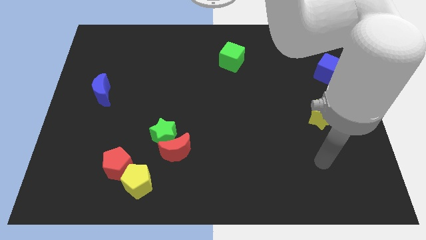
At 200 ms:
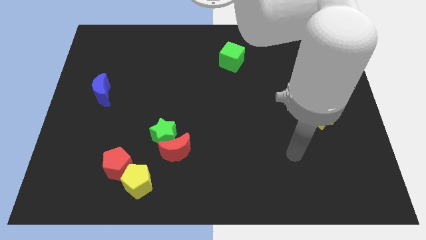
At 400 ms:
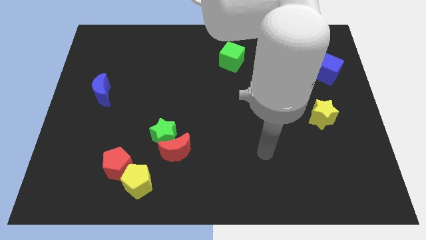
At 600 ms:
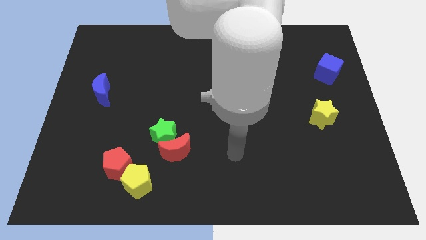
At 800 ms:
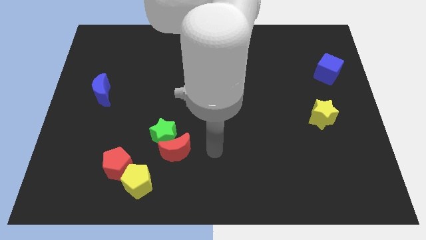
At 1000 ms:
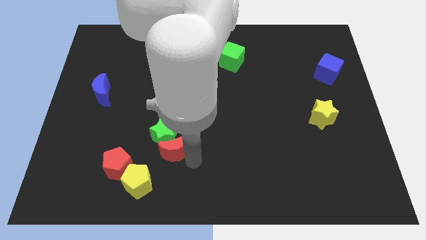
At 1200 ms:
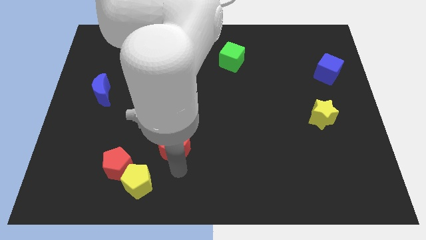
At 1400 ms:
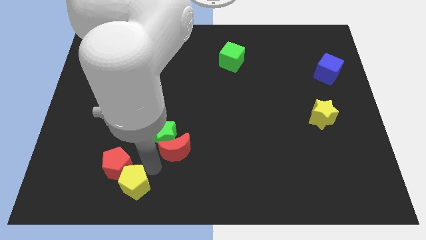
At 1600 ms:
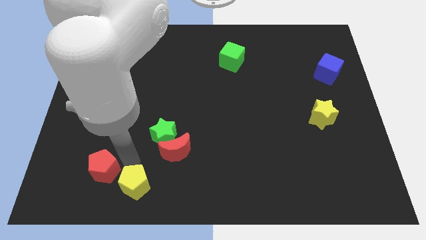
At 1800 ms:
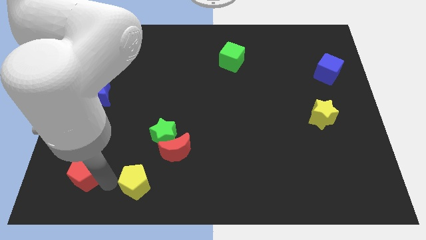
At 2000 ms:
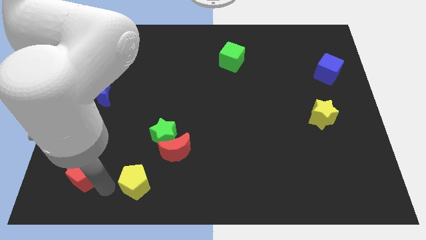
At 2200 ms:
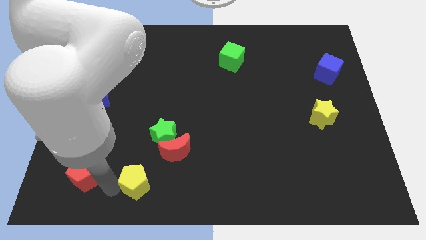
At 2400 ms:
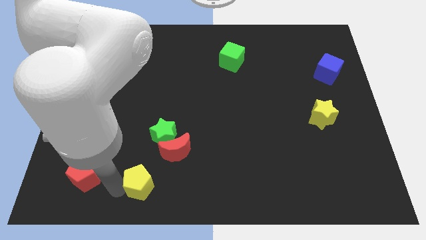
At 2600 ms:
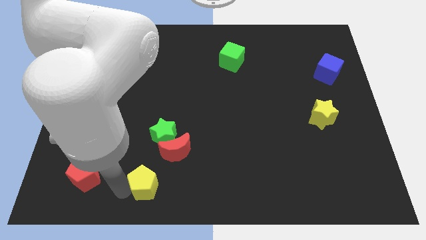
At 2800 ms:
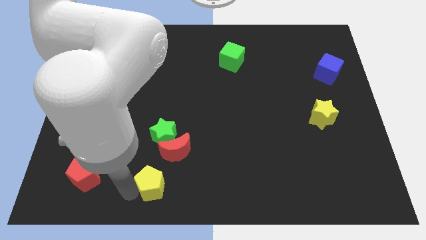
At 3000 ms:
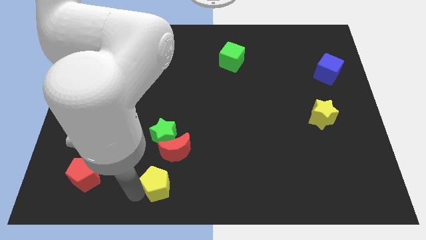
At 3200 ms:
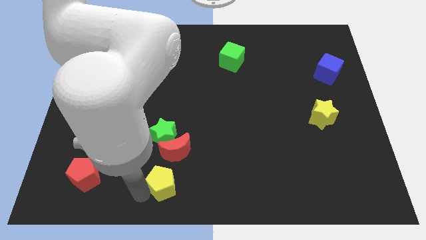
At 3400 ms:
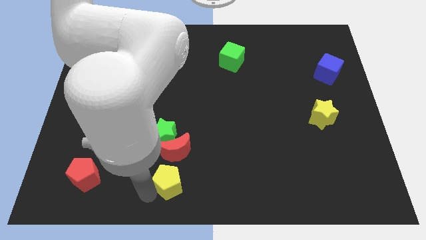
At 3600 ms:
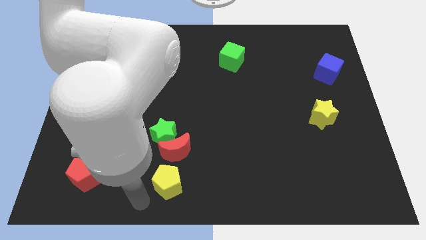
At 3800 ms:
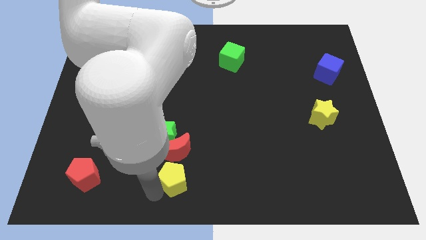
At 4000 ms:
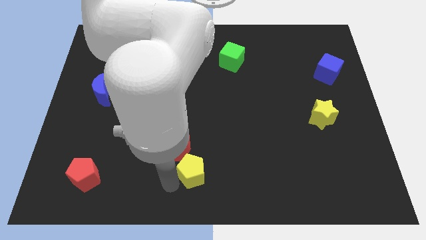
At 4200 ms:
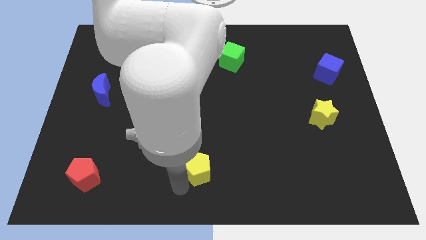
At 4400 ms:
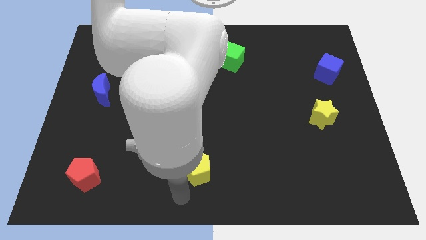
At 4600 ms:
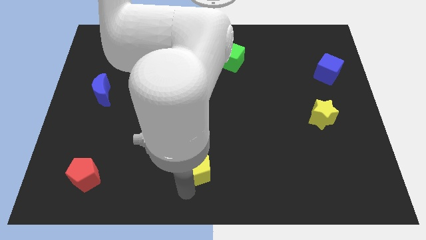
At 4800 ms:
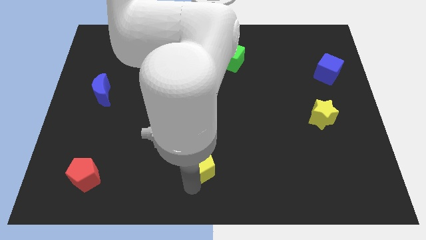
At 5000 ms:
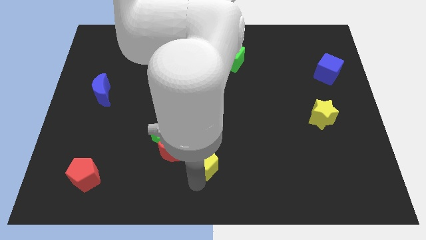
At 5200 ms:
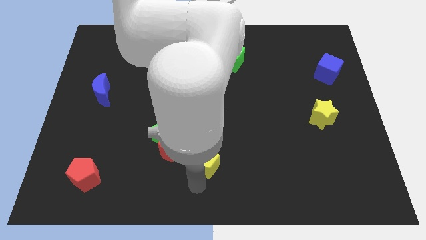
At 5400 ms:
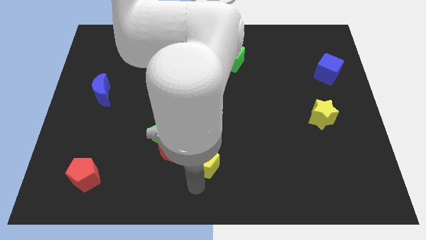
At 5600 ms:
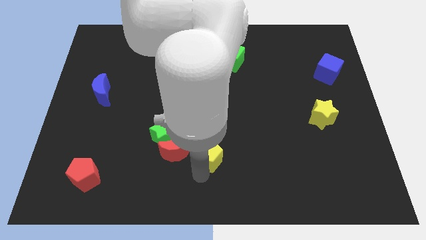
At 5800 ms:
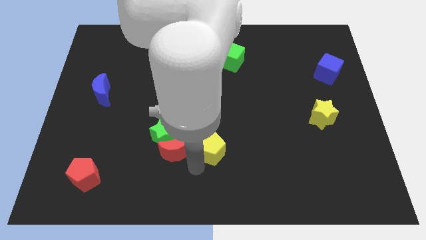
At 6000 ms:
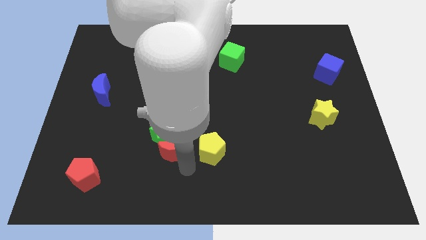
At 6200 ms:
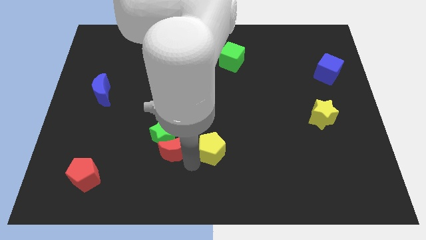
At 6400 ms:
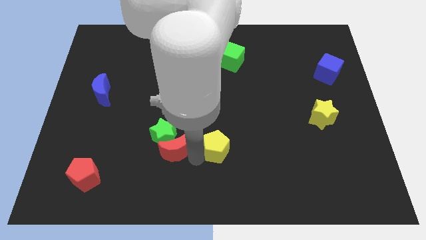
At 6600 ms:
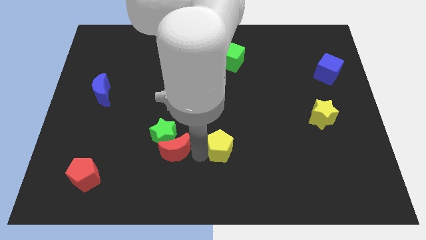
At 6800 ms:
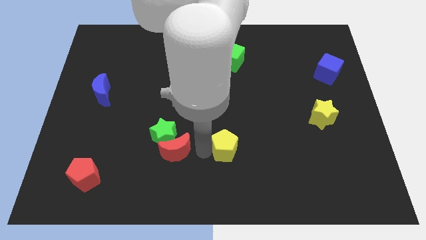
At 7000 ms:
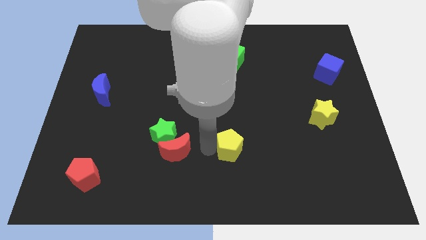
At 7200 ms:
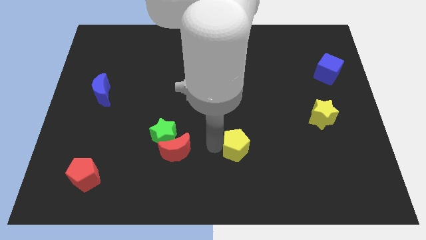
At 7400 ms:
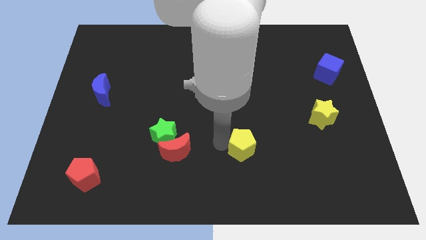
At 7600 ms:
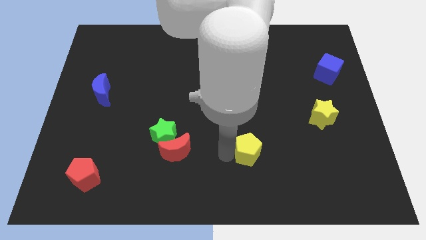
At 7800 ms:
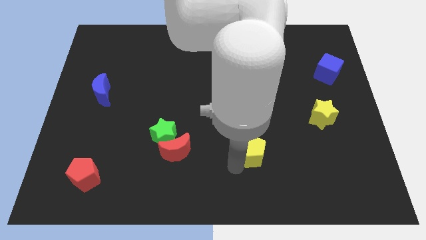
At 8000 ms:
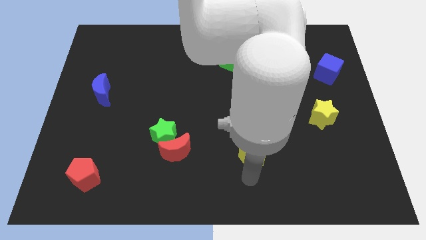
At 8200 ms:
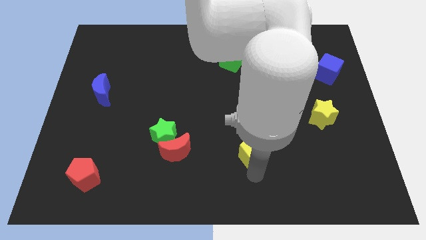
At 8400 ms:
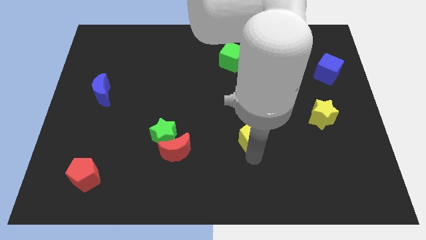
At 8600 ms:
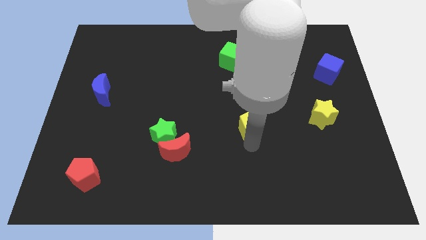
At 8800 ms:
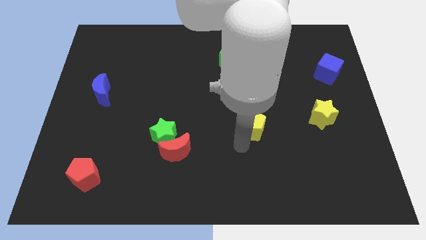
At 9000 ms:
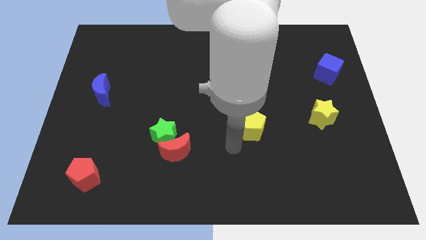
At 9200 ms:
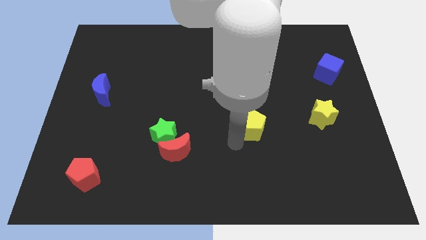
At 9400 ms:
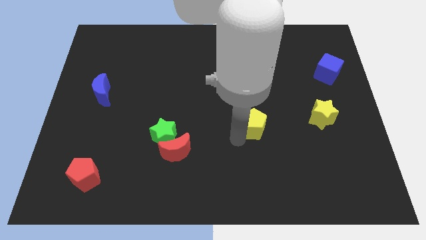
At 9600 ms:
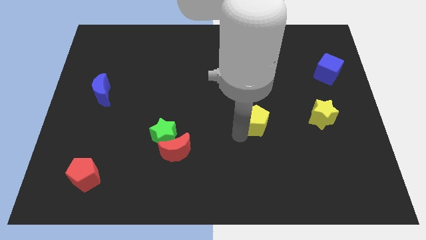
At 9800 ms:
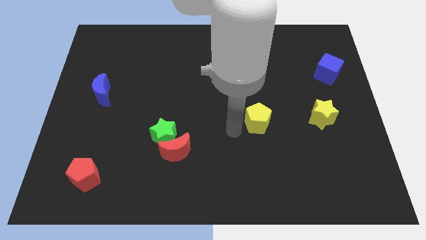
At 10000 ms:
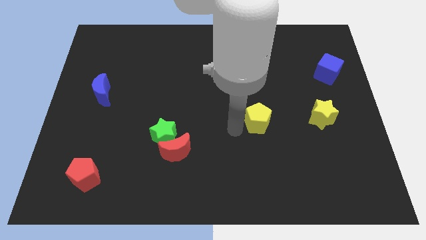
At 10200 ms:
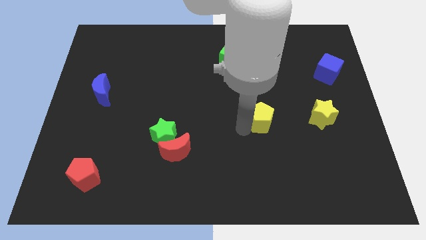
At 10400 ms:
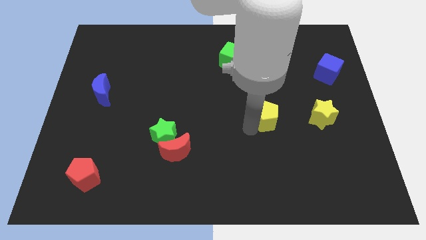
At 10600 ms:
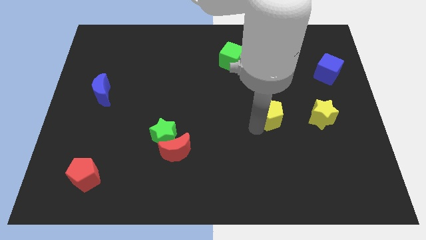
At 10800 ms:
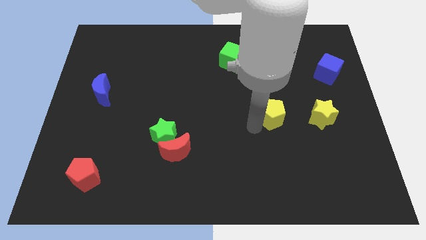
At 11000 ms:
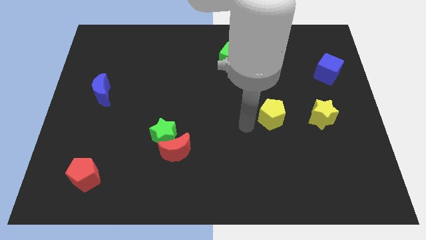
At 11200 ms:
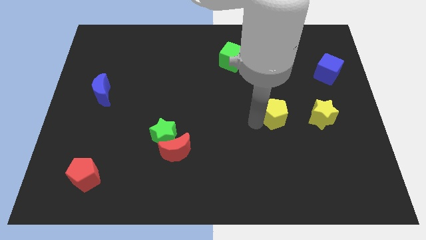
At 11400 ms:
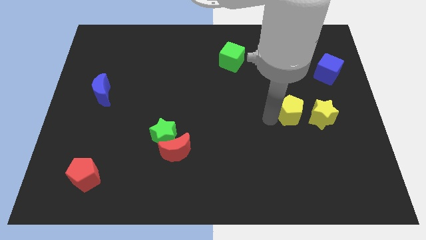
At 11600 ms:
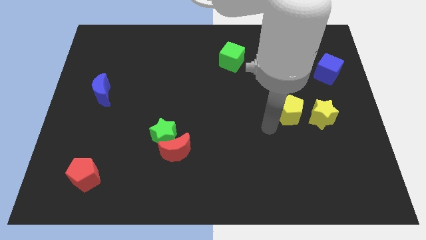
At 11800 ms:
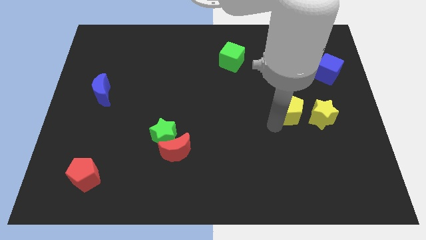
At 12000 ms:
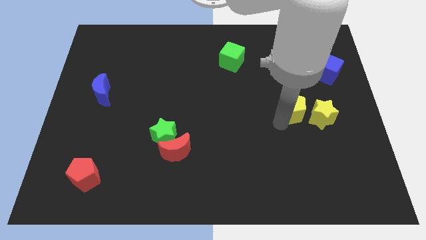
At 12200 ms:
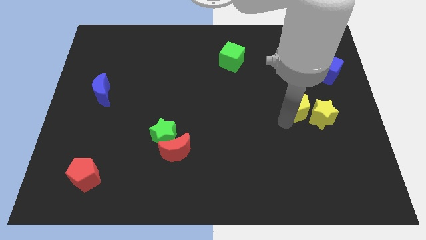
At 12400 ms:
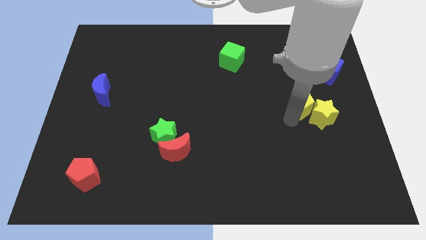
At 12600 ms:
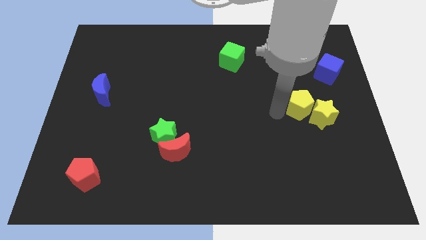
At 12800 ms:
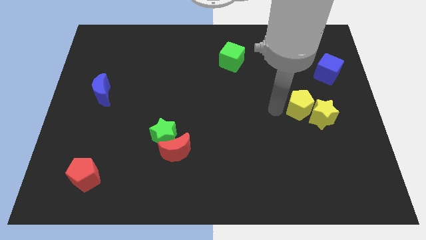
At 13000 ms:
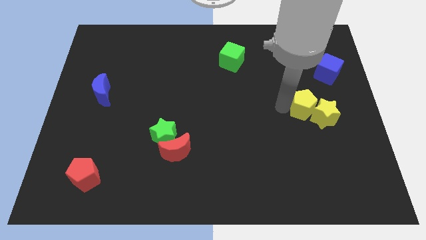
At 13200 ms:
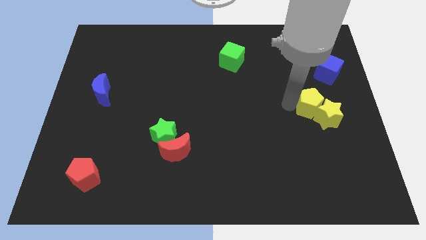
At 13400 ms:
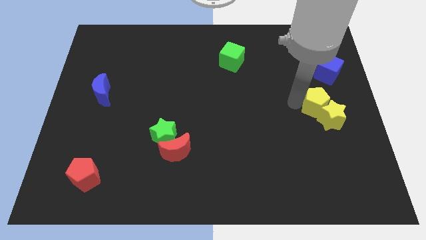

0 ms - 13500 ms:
slide the yellow pentagon below the blue cube
